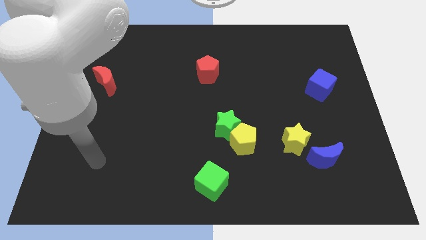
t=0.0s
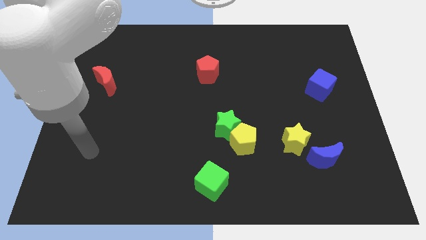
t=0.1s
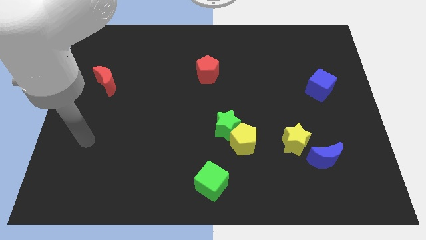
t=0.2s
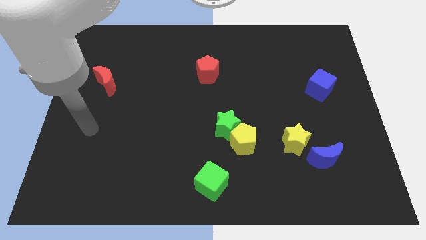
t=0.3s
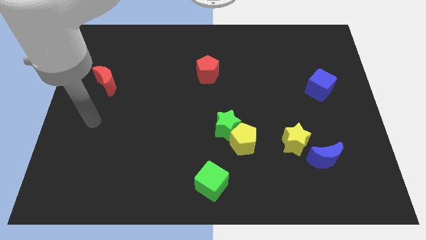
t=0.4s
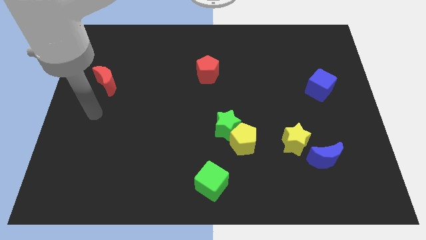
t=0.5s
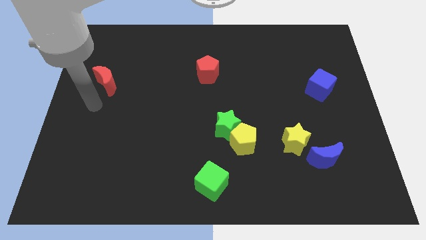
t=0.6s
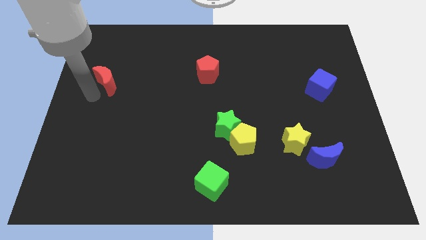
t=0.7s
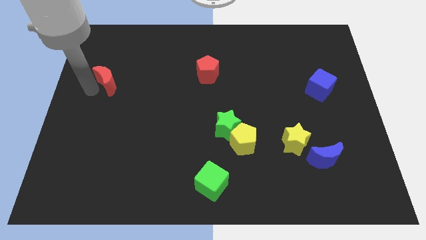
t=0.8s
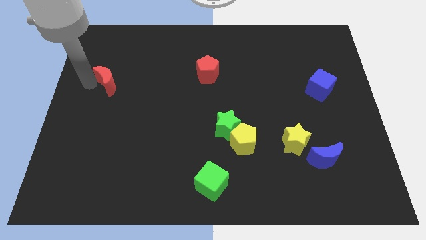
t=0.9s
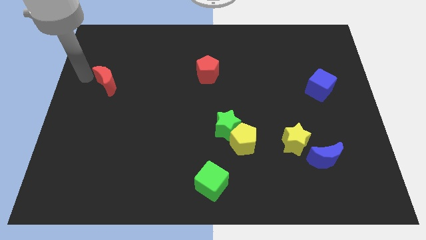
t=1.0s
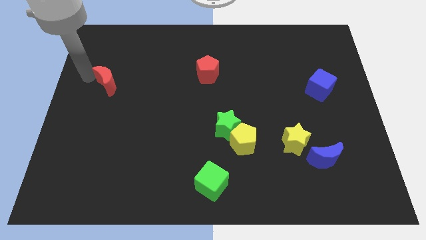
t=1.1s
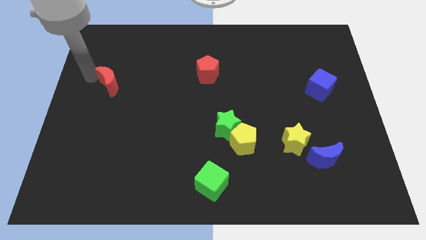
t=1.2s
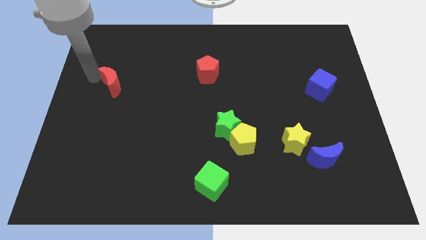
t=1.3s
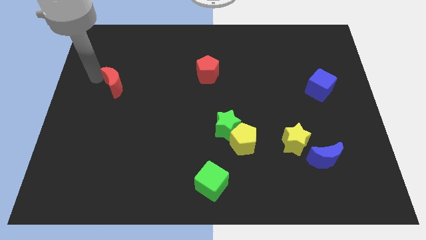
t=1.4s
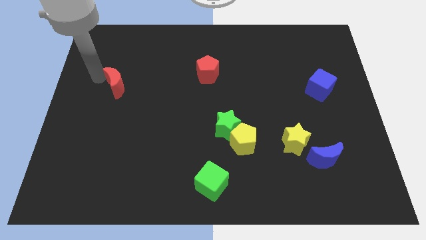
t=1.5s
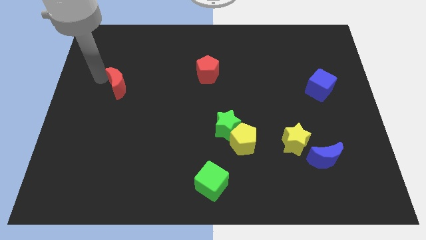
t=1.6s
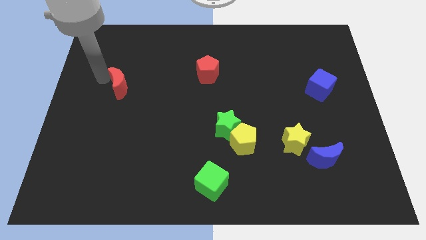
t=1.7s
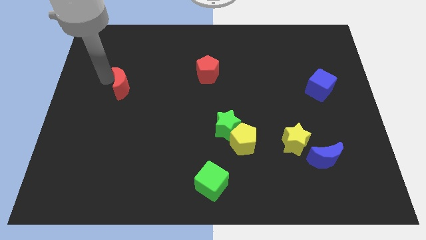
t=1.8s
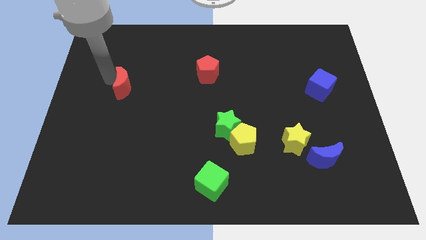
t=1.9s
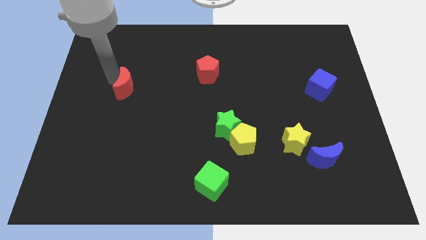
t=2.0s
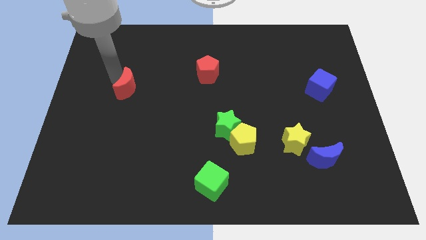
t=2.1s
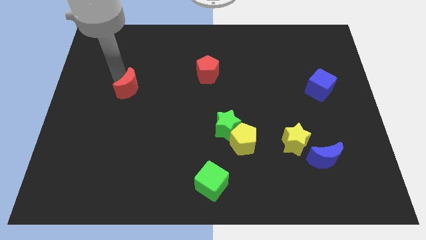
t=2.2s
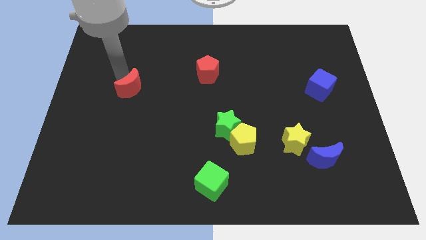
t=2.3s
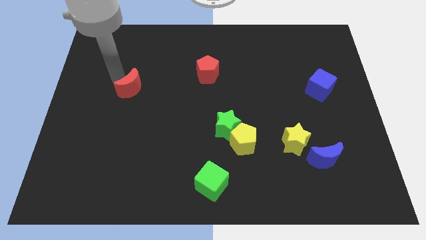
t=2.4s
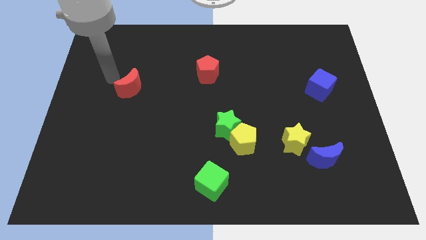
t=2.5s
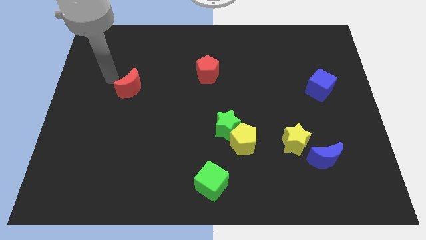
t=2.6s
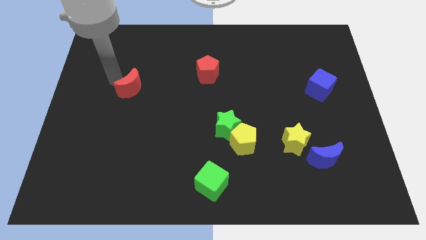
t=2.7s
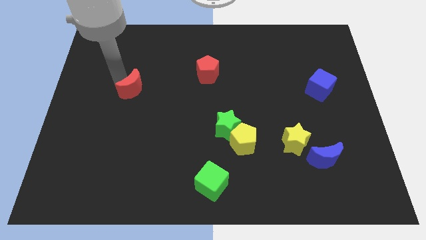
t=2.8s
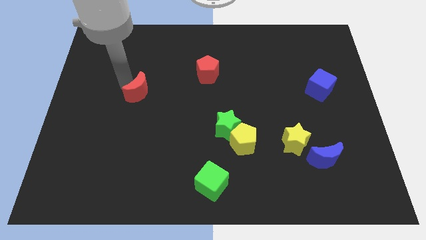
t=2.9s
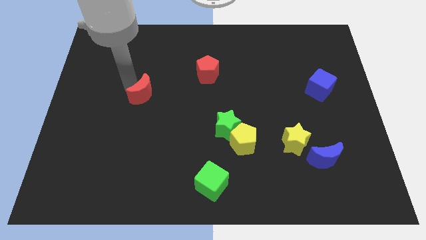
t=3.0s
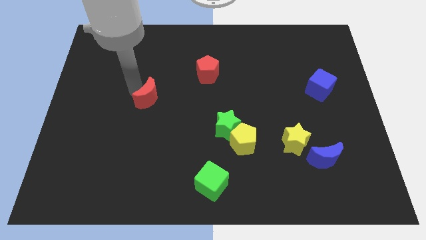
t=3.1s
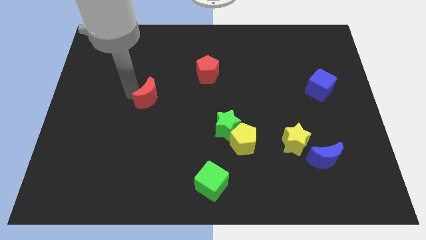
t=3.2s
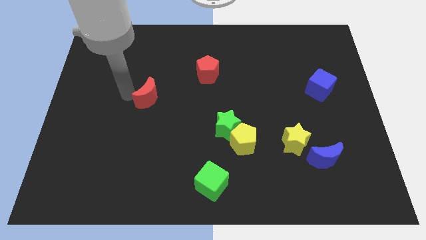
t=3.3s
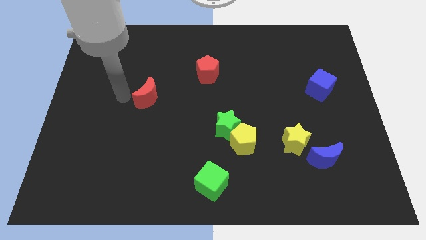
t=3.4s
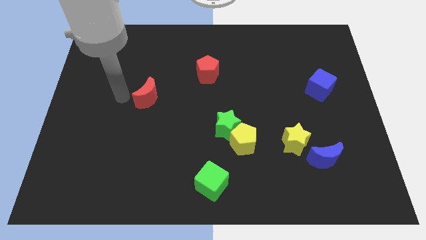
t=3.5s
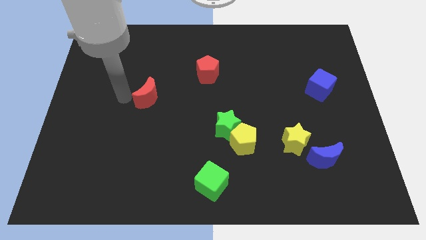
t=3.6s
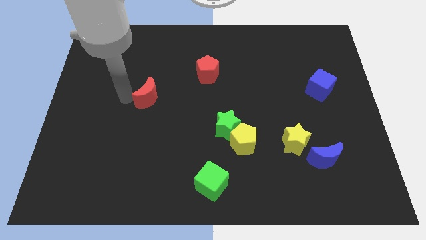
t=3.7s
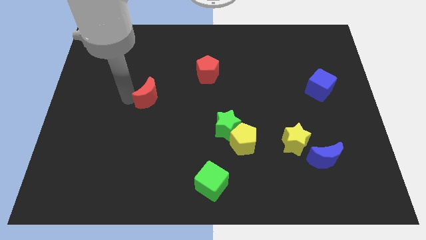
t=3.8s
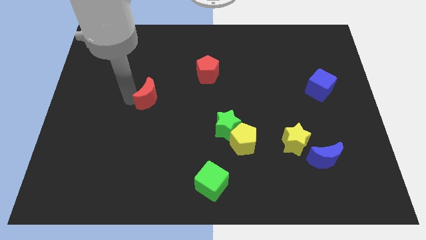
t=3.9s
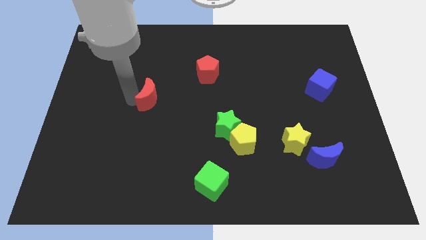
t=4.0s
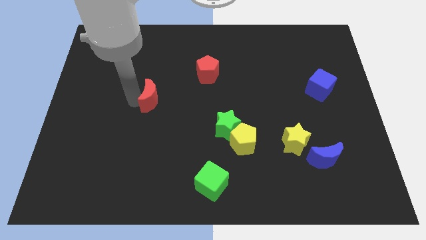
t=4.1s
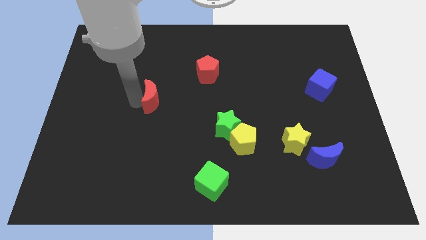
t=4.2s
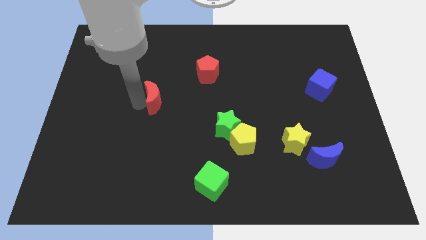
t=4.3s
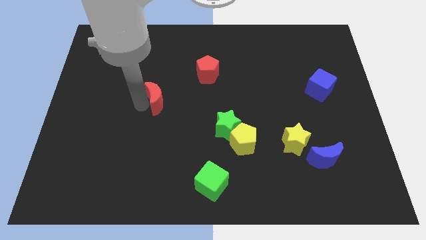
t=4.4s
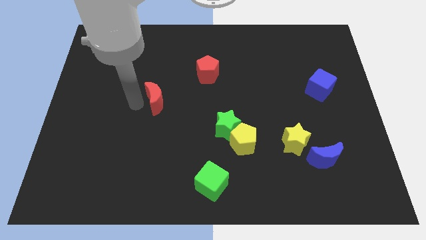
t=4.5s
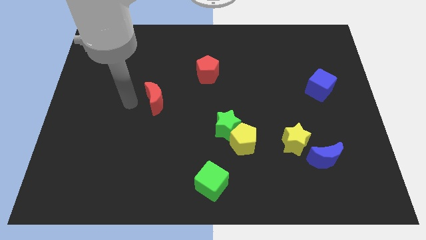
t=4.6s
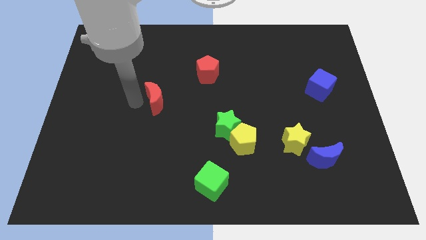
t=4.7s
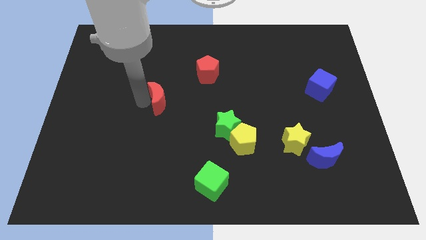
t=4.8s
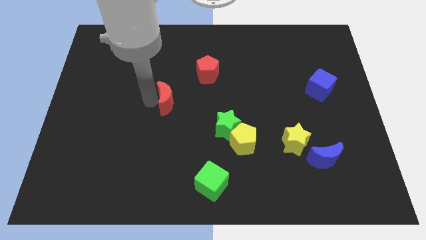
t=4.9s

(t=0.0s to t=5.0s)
push the red moon to the center of the board

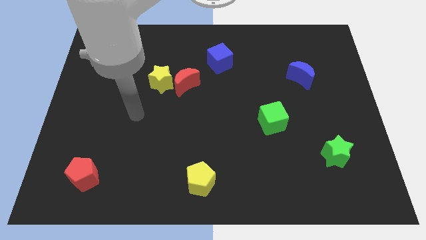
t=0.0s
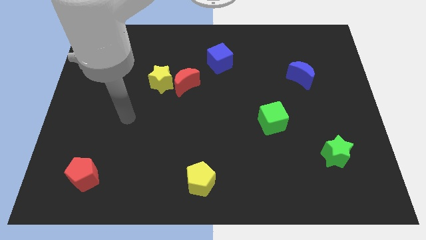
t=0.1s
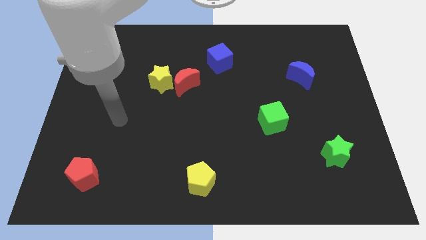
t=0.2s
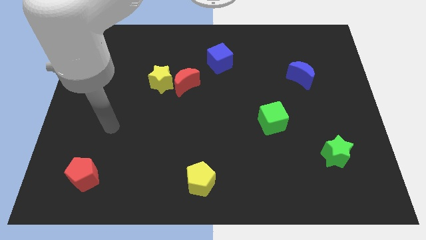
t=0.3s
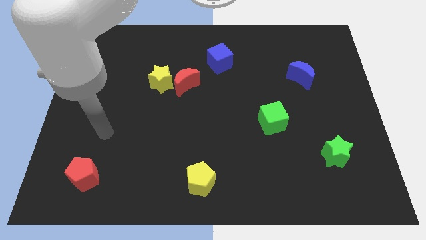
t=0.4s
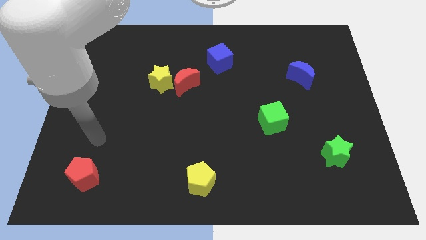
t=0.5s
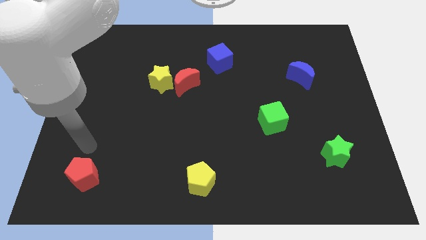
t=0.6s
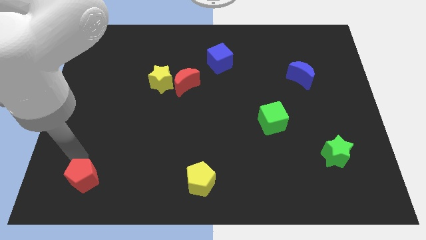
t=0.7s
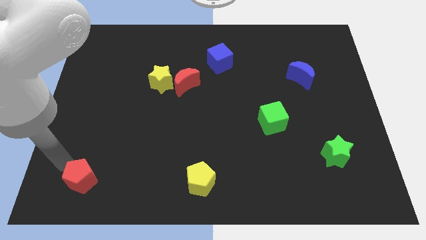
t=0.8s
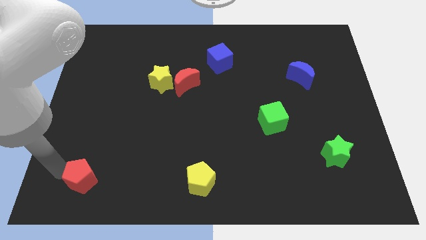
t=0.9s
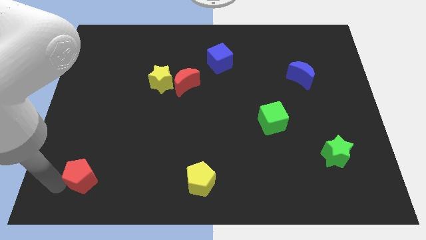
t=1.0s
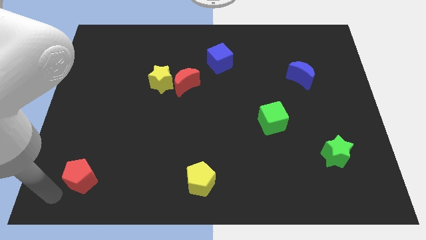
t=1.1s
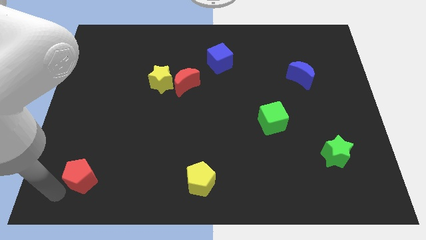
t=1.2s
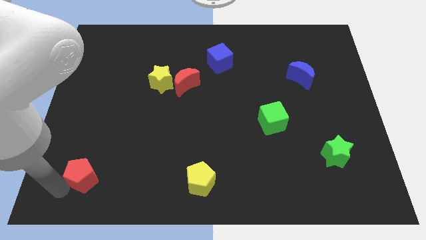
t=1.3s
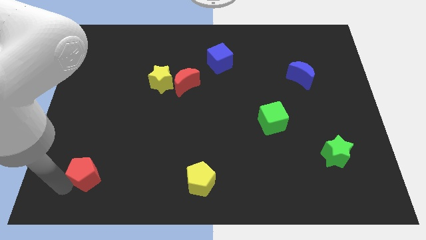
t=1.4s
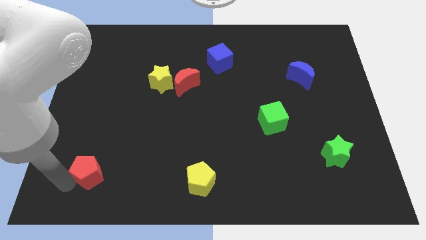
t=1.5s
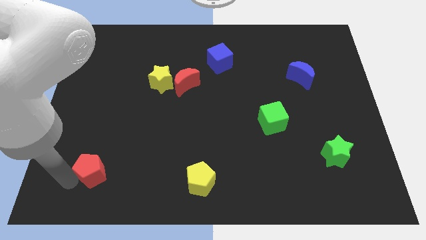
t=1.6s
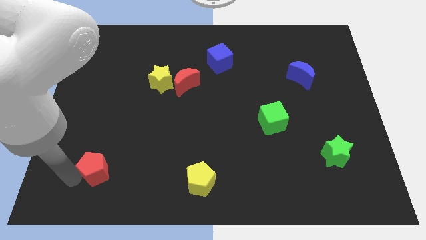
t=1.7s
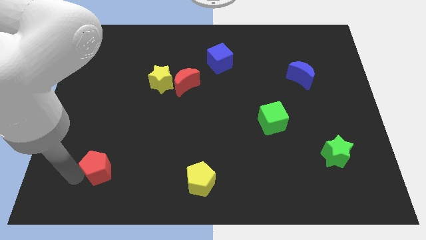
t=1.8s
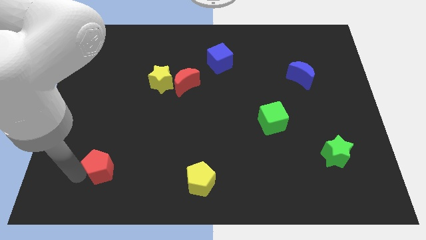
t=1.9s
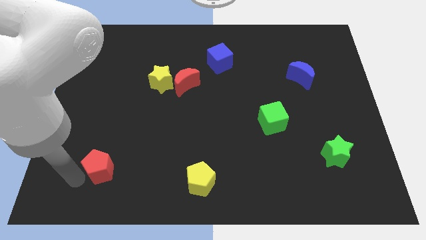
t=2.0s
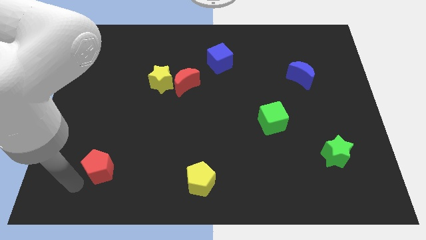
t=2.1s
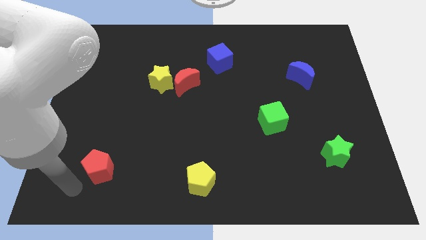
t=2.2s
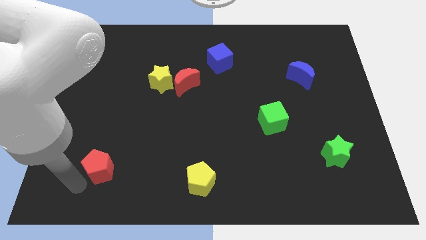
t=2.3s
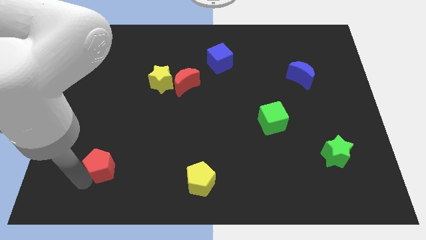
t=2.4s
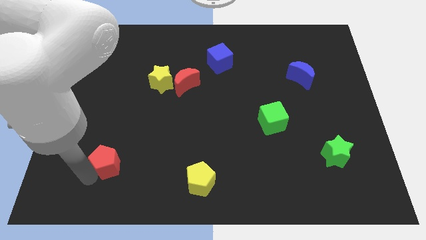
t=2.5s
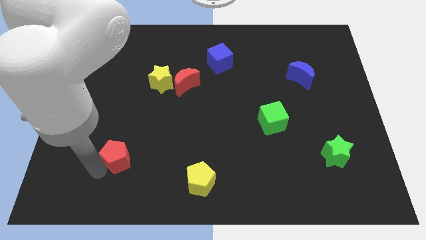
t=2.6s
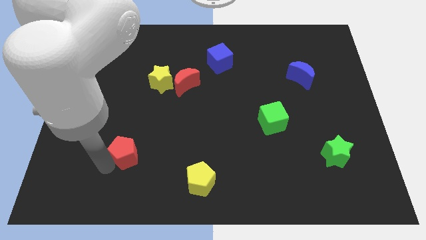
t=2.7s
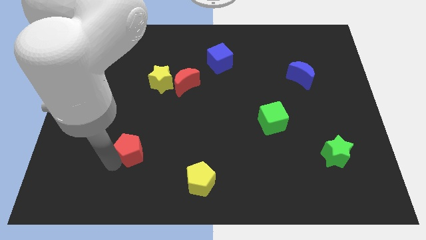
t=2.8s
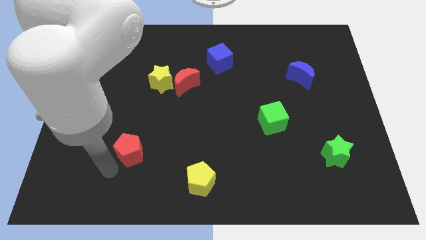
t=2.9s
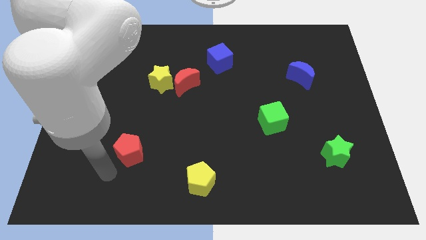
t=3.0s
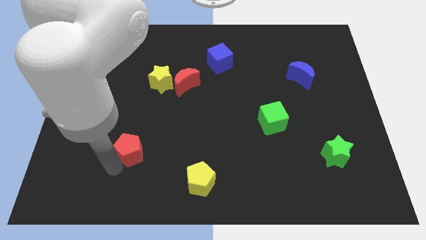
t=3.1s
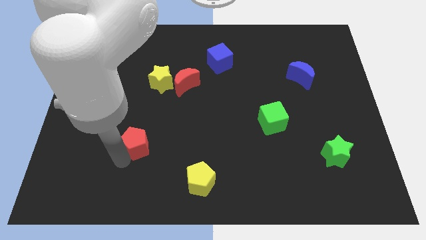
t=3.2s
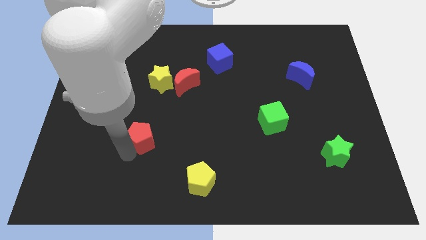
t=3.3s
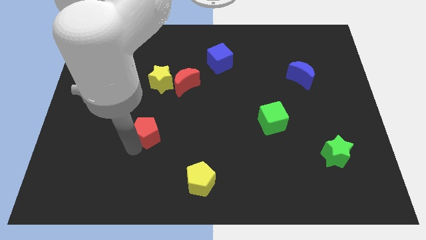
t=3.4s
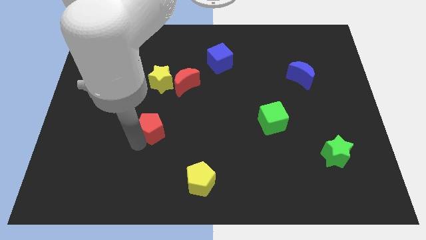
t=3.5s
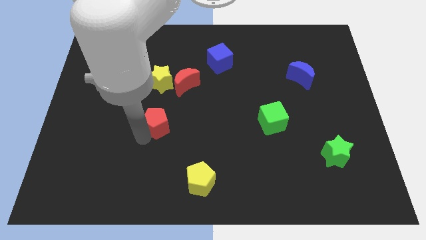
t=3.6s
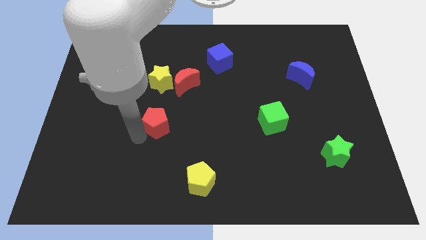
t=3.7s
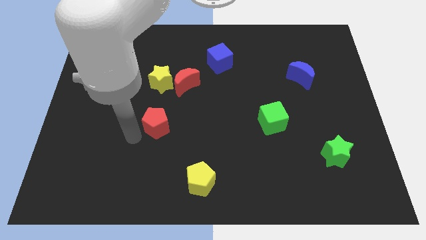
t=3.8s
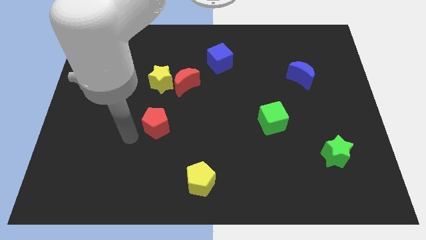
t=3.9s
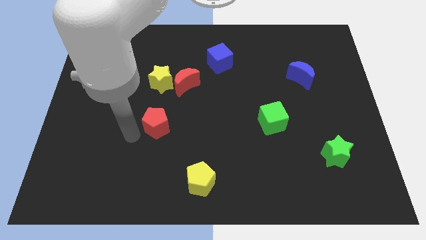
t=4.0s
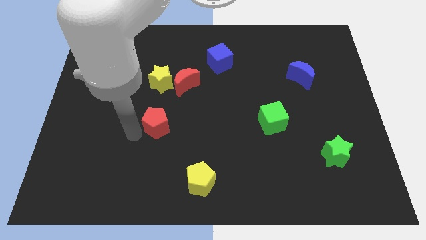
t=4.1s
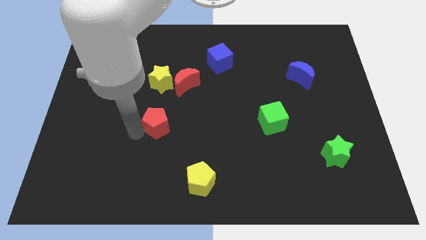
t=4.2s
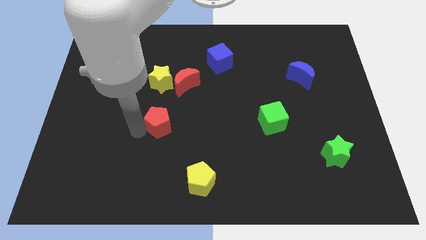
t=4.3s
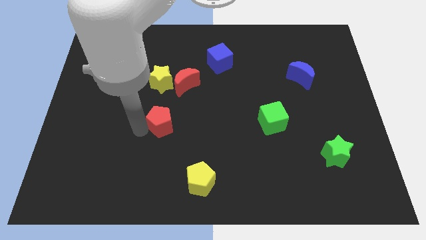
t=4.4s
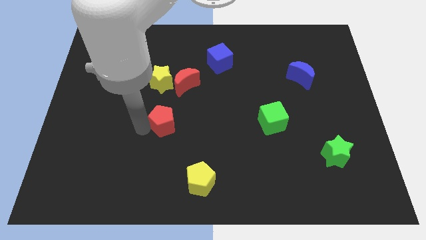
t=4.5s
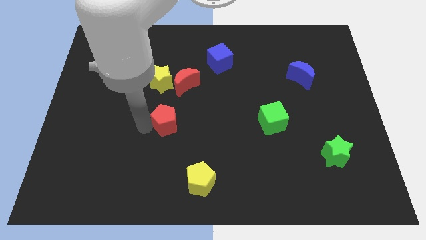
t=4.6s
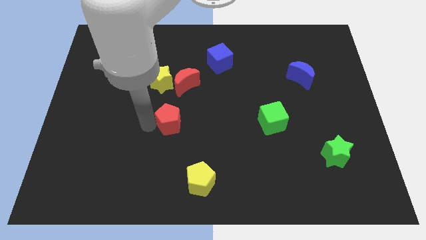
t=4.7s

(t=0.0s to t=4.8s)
move the red pentagon to the center
